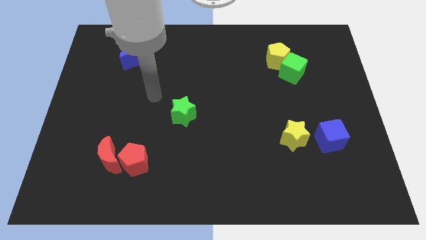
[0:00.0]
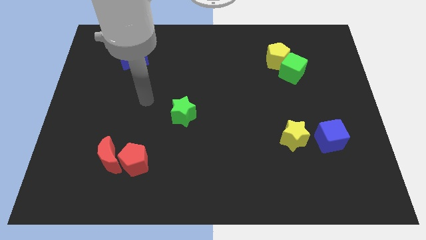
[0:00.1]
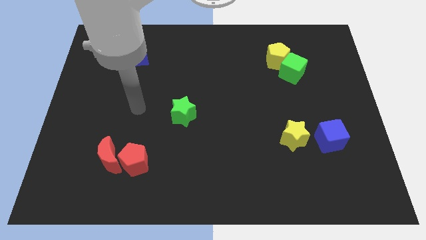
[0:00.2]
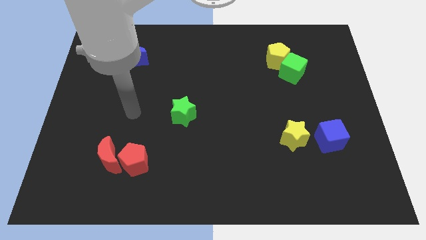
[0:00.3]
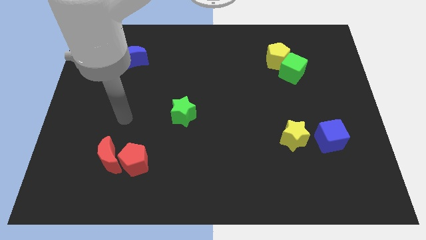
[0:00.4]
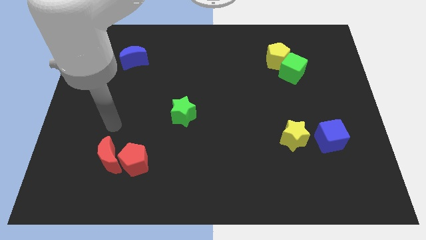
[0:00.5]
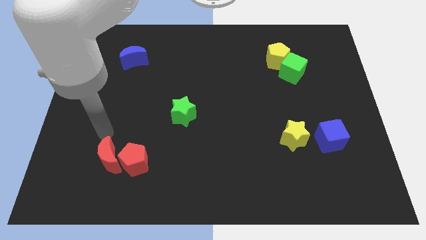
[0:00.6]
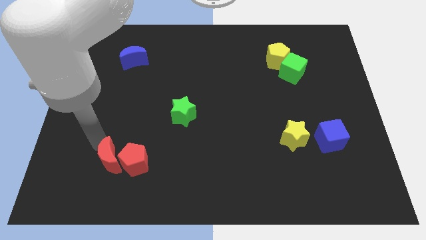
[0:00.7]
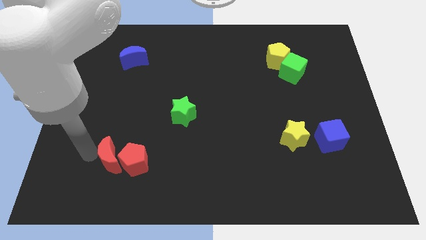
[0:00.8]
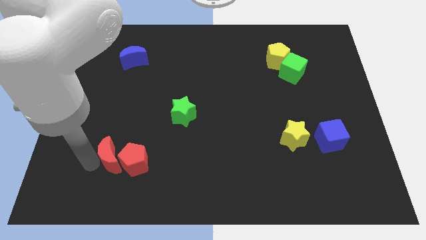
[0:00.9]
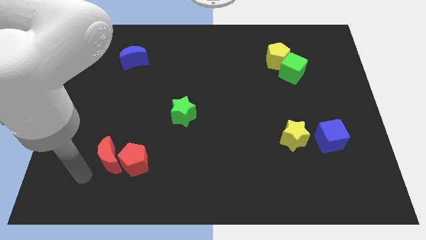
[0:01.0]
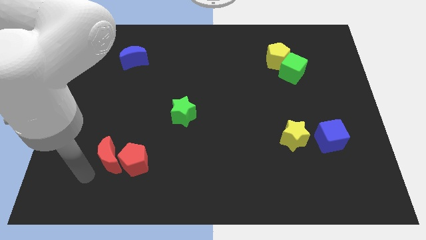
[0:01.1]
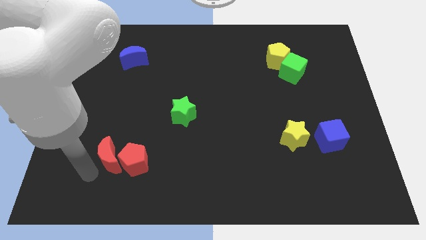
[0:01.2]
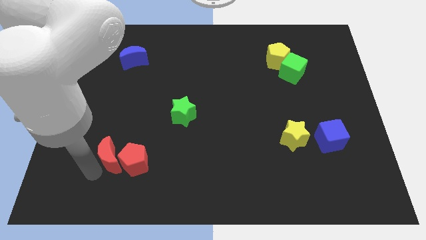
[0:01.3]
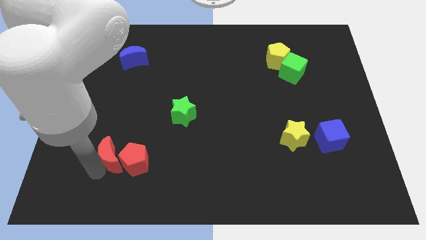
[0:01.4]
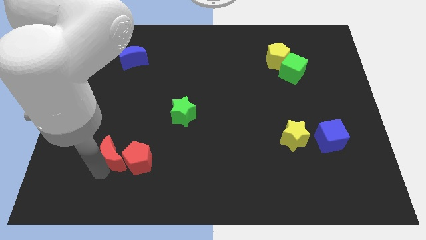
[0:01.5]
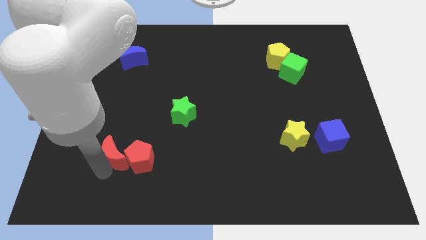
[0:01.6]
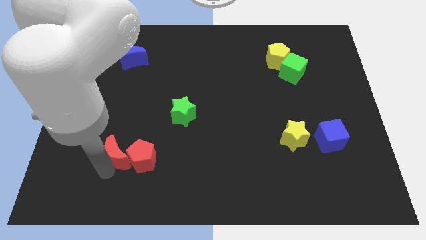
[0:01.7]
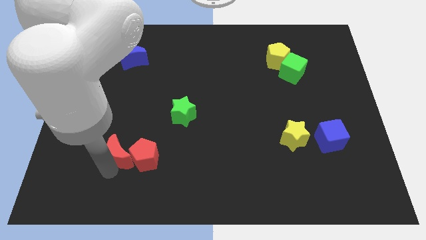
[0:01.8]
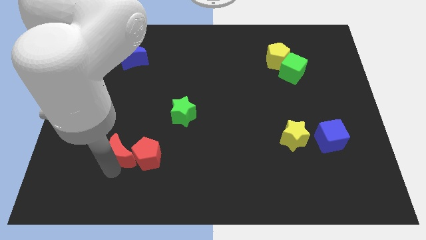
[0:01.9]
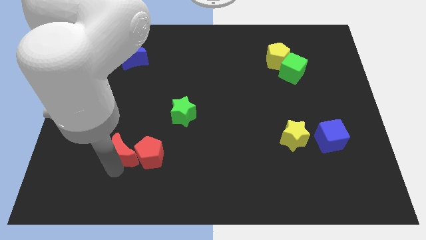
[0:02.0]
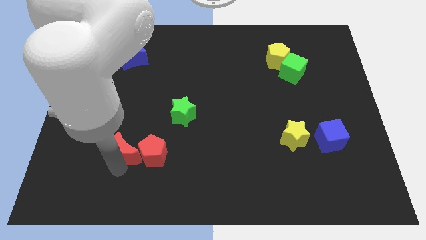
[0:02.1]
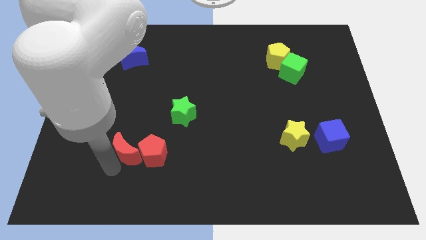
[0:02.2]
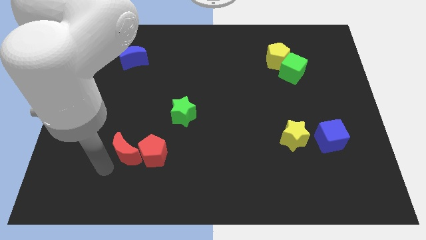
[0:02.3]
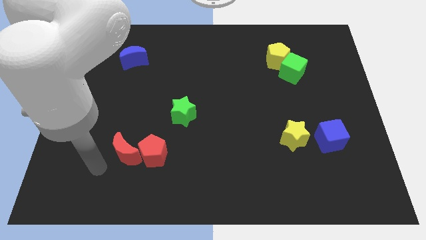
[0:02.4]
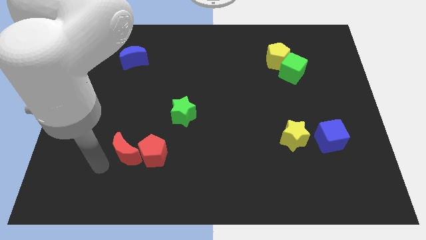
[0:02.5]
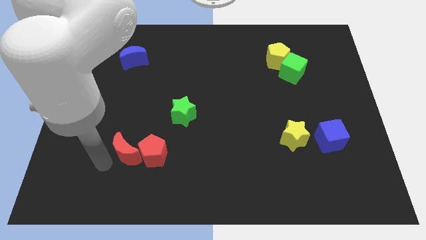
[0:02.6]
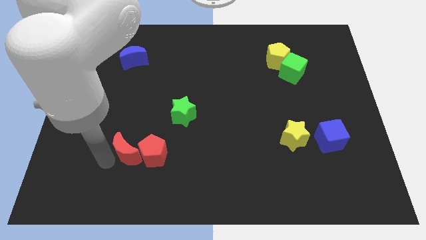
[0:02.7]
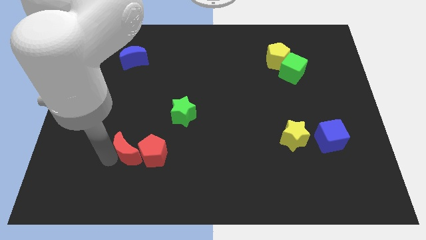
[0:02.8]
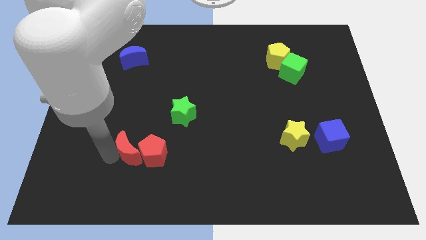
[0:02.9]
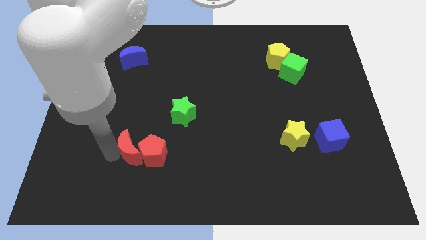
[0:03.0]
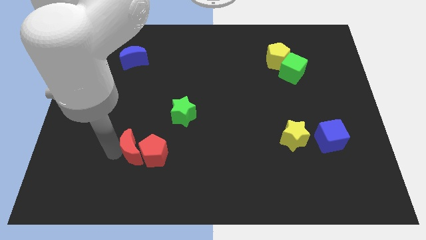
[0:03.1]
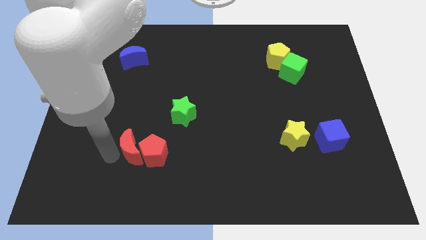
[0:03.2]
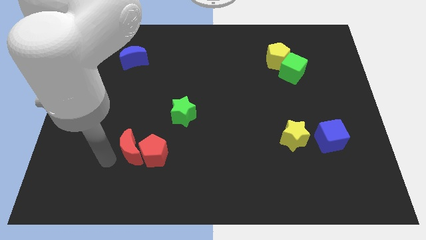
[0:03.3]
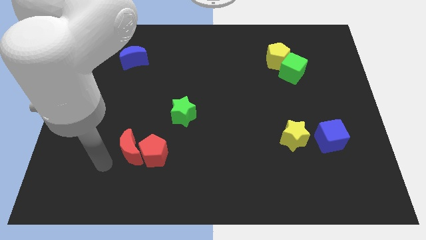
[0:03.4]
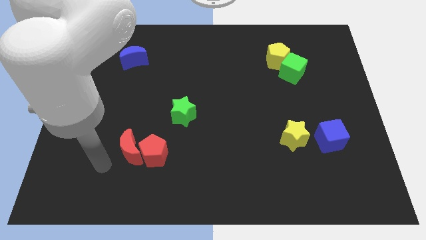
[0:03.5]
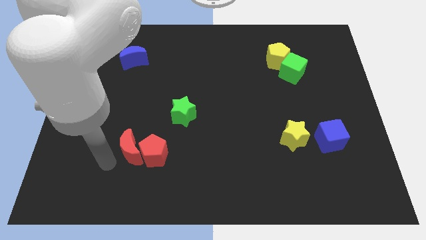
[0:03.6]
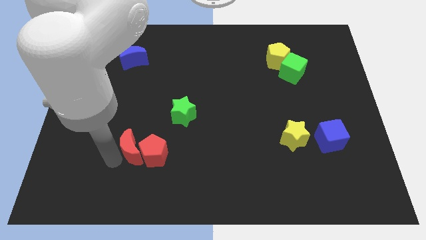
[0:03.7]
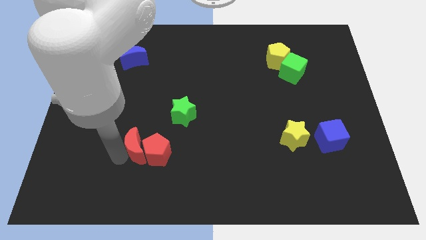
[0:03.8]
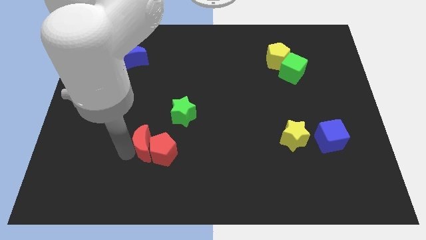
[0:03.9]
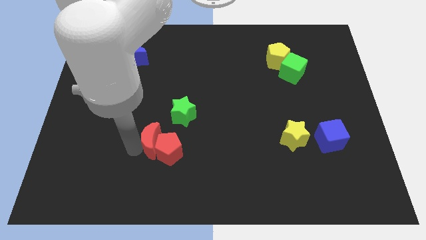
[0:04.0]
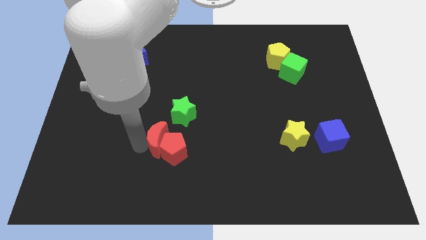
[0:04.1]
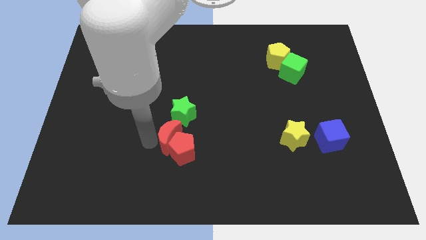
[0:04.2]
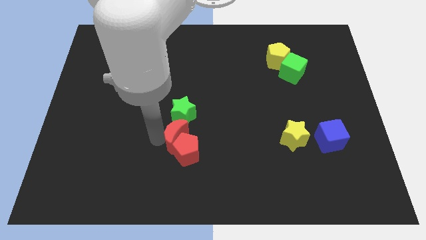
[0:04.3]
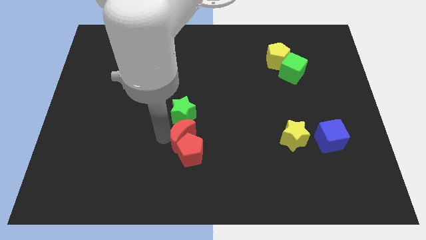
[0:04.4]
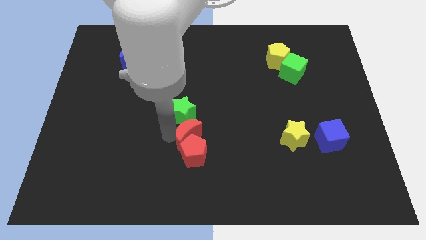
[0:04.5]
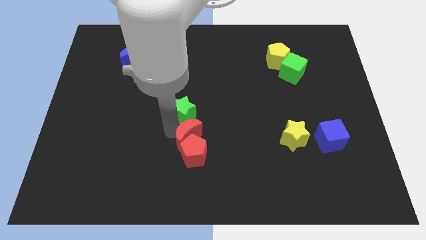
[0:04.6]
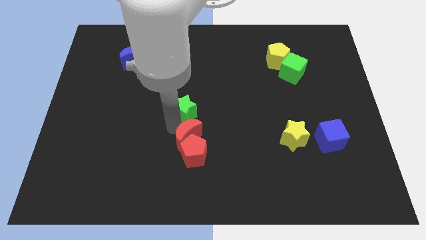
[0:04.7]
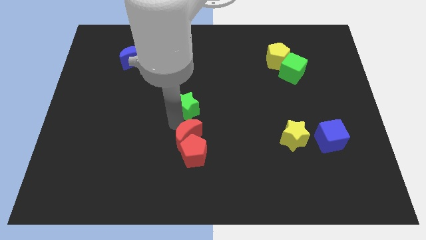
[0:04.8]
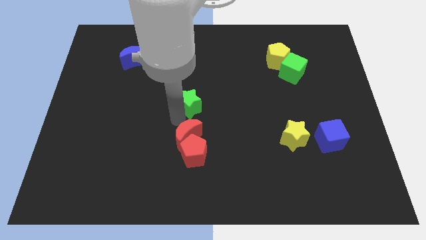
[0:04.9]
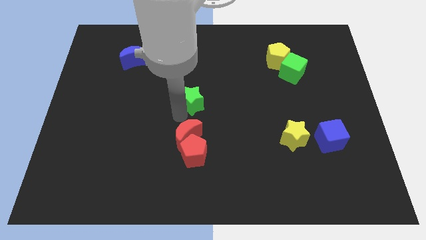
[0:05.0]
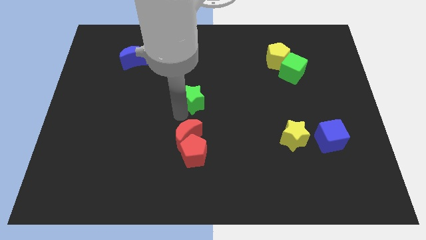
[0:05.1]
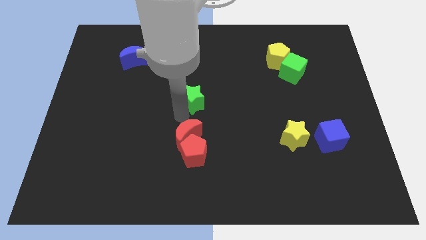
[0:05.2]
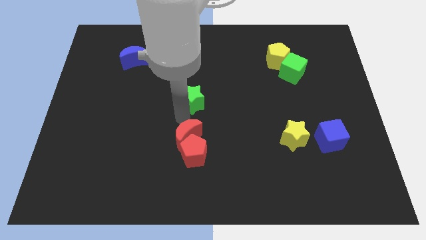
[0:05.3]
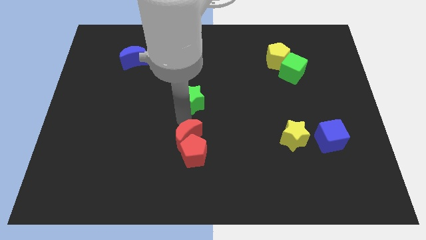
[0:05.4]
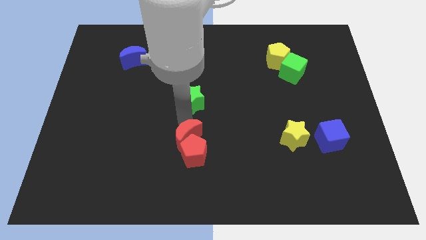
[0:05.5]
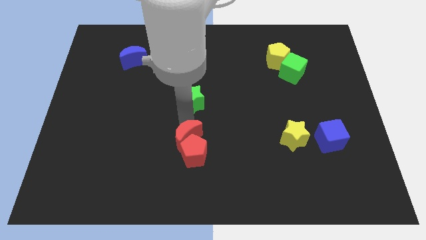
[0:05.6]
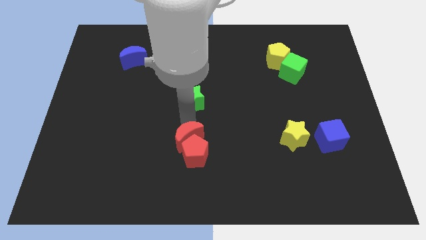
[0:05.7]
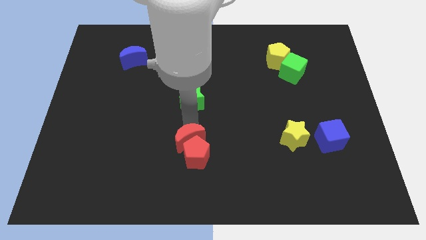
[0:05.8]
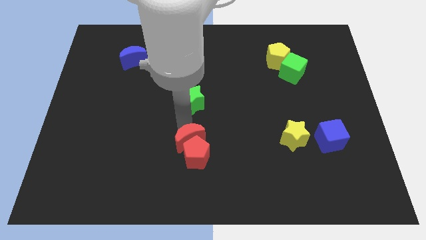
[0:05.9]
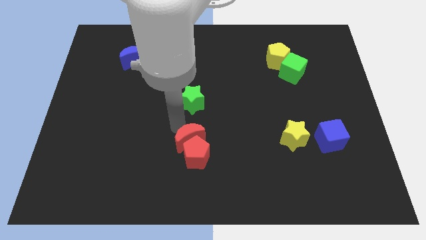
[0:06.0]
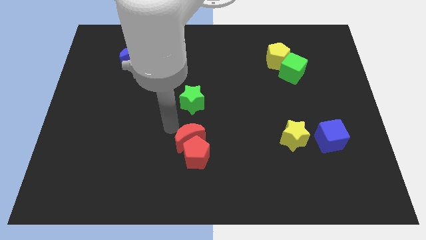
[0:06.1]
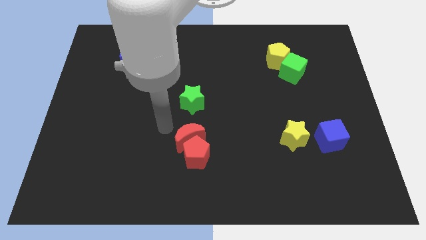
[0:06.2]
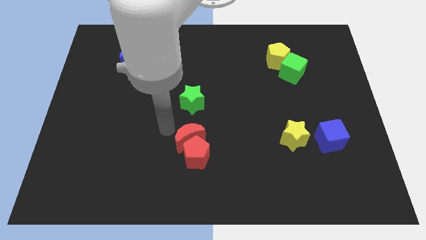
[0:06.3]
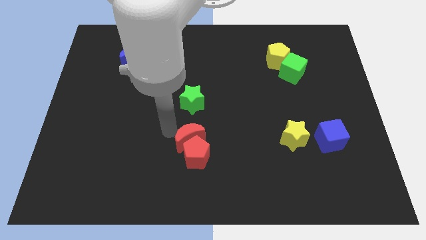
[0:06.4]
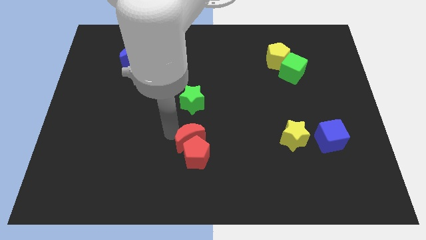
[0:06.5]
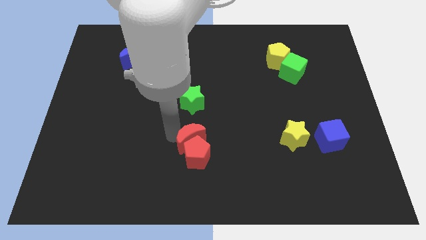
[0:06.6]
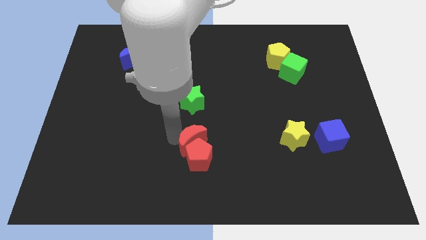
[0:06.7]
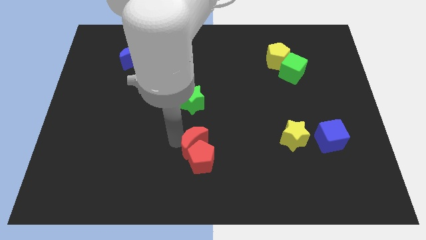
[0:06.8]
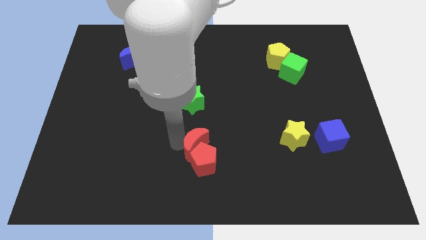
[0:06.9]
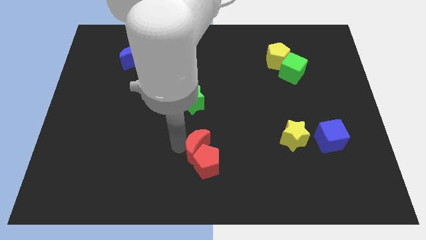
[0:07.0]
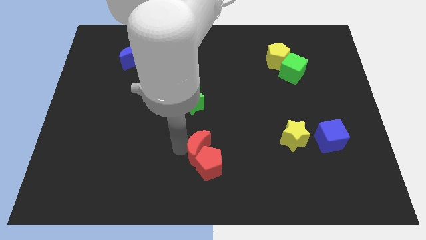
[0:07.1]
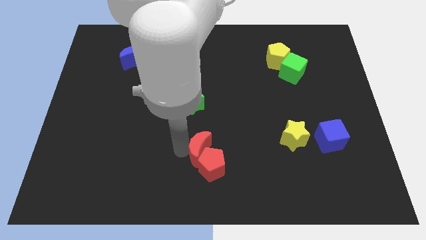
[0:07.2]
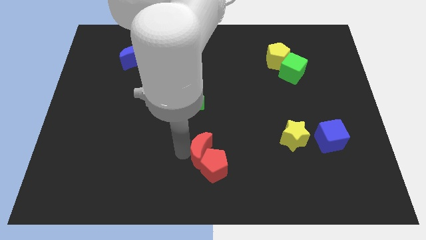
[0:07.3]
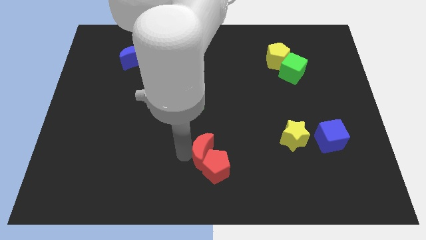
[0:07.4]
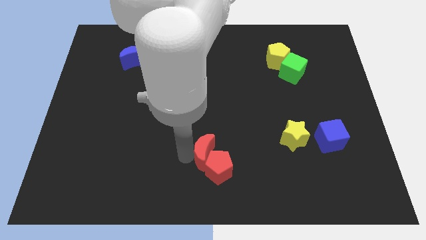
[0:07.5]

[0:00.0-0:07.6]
push the red moon to the right

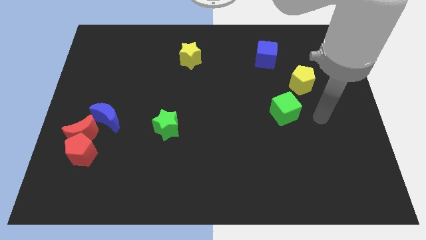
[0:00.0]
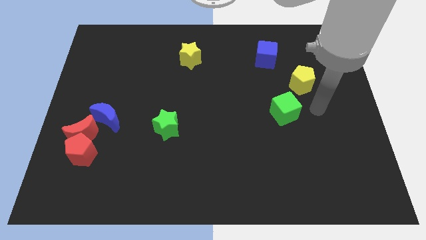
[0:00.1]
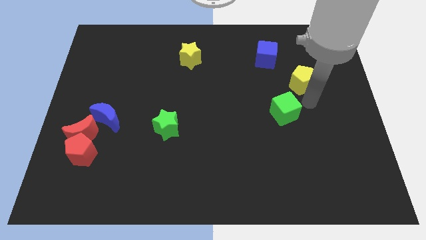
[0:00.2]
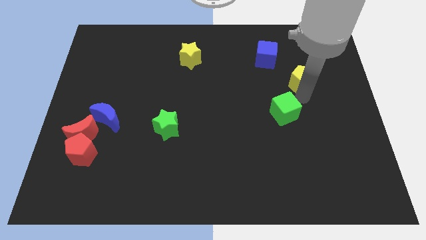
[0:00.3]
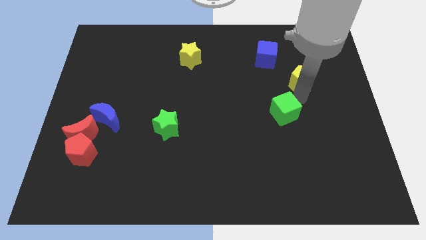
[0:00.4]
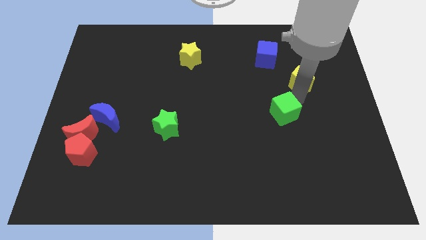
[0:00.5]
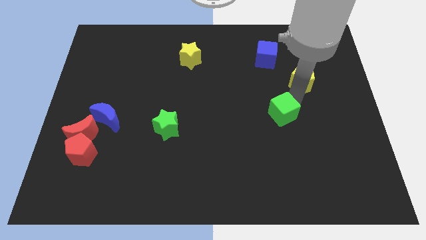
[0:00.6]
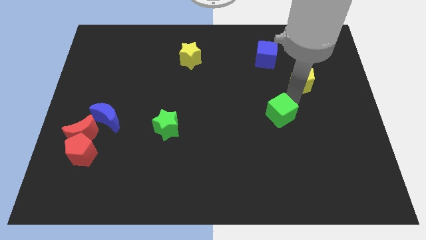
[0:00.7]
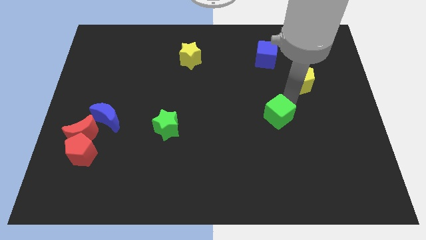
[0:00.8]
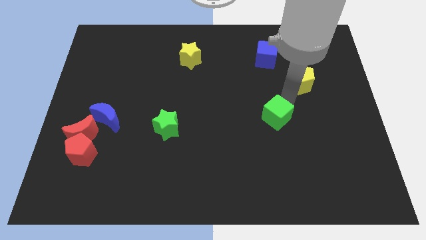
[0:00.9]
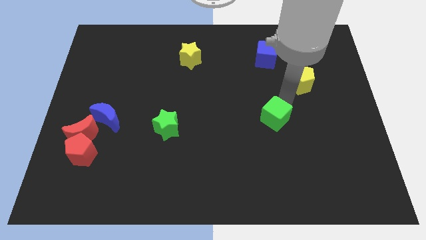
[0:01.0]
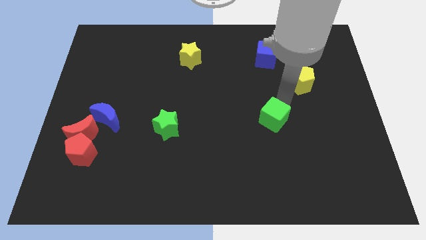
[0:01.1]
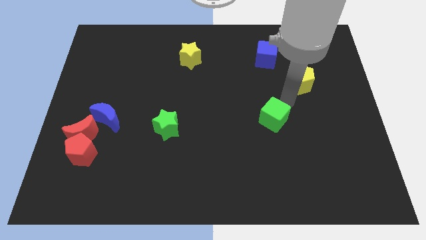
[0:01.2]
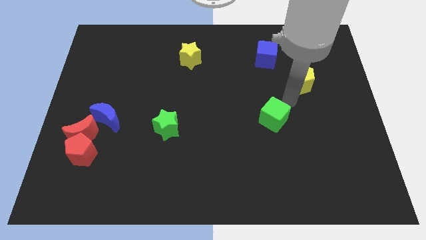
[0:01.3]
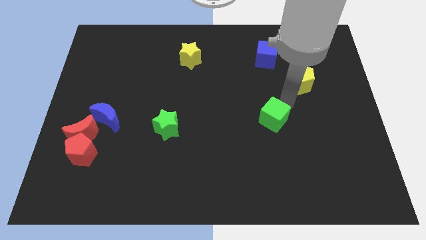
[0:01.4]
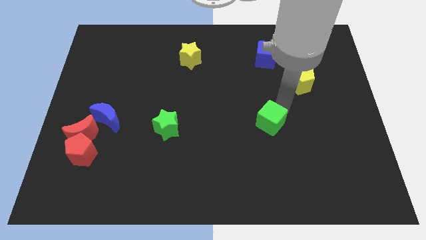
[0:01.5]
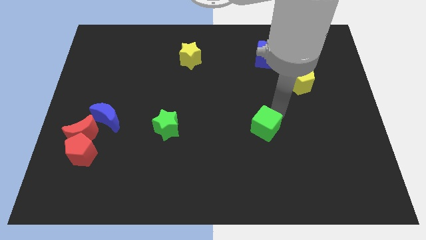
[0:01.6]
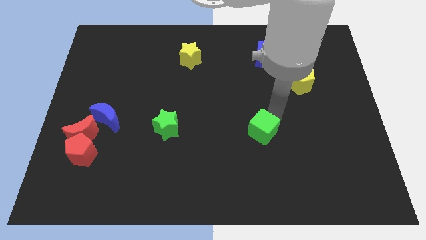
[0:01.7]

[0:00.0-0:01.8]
move the green cube downwards and then to the left somewhat
